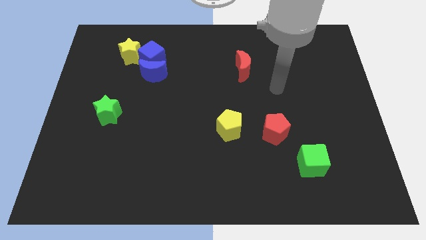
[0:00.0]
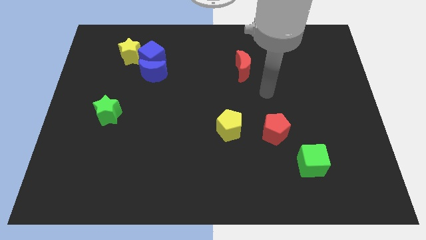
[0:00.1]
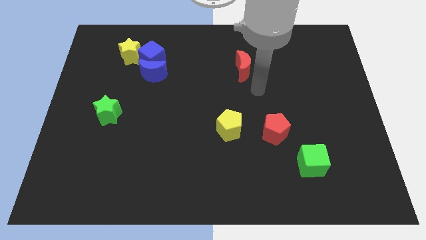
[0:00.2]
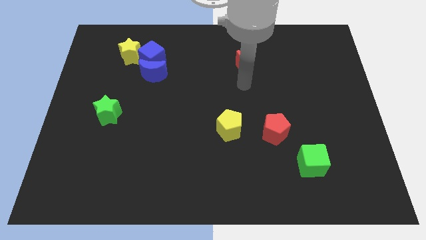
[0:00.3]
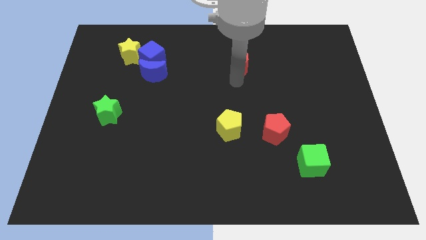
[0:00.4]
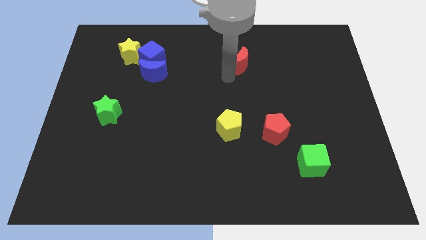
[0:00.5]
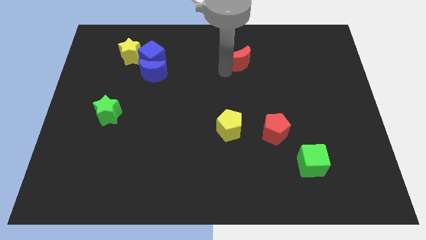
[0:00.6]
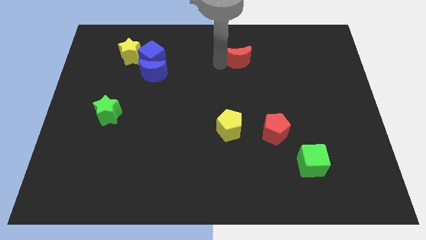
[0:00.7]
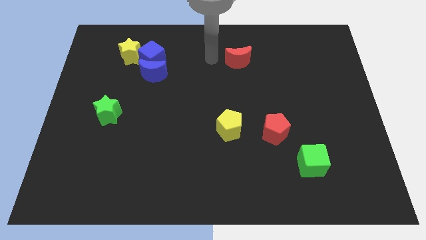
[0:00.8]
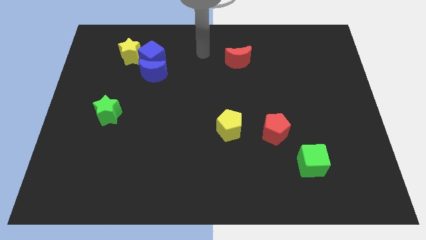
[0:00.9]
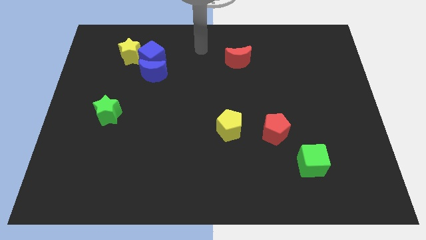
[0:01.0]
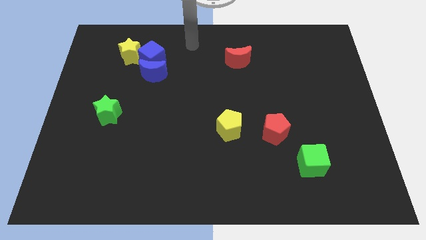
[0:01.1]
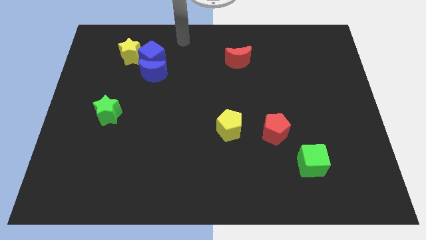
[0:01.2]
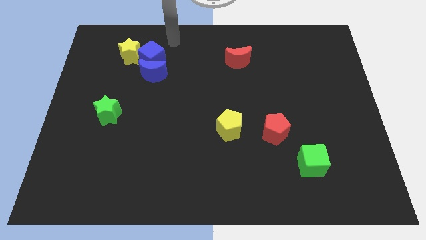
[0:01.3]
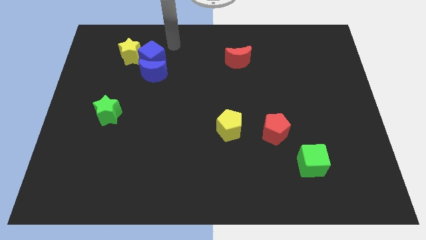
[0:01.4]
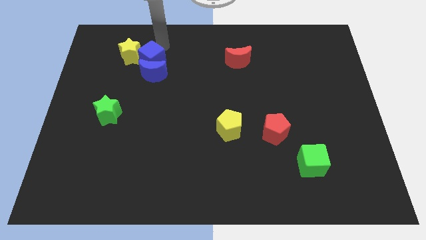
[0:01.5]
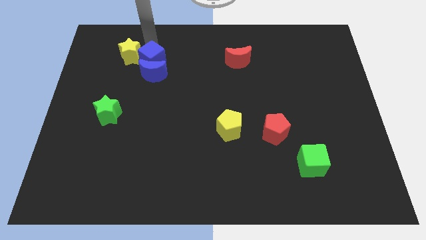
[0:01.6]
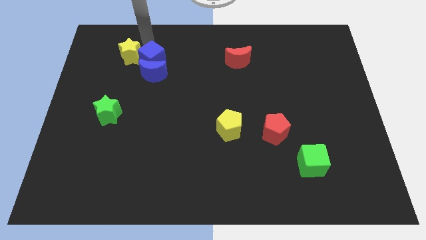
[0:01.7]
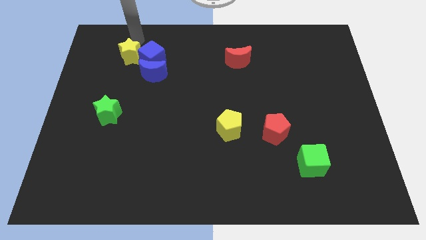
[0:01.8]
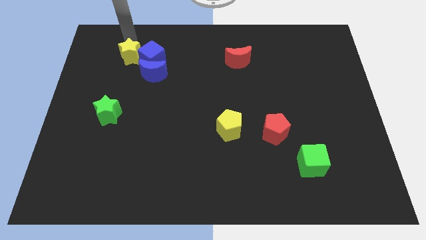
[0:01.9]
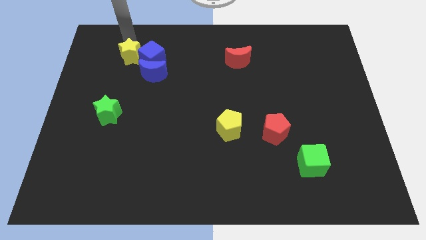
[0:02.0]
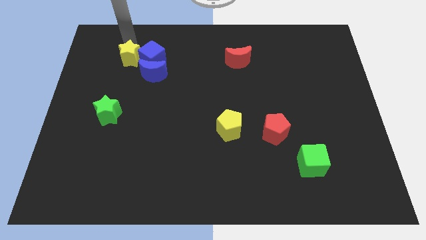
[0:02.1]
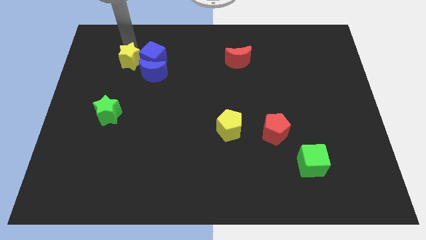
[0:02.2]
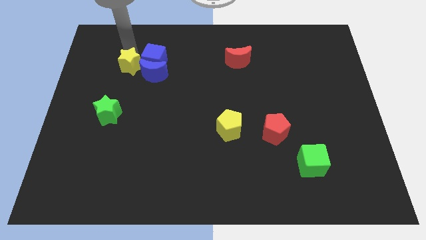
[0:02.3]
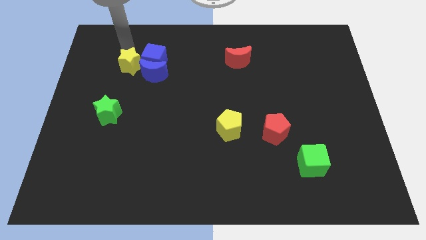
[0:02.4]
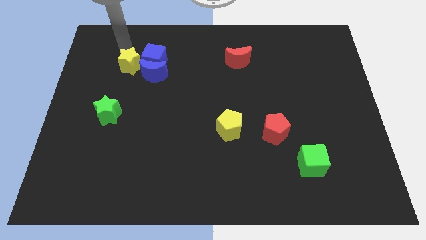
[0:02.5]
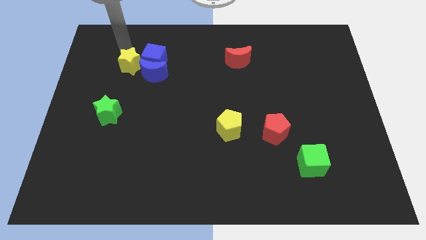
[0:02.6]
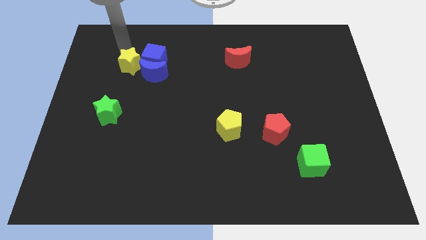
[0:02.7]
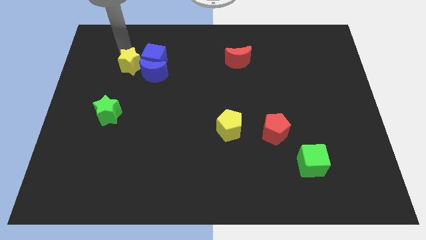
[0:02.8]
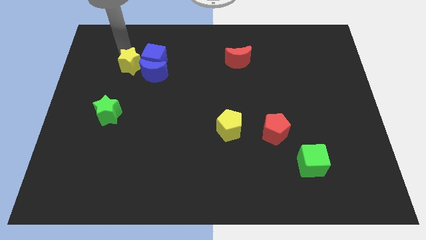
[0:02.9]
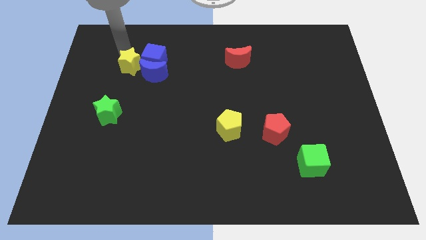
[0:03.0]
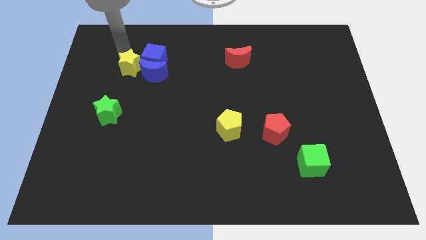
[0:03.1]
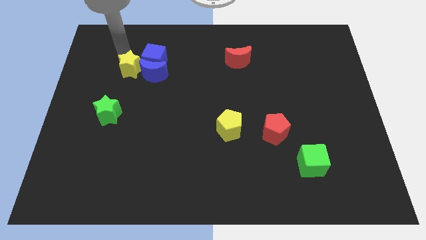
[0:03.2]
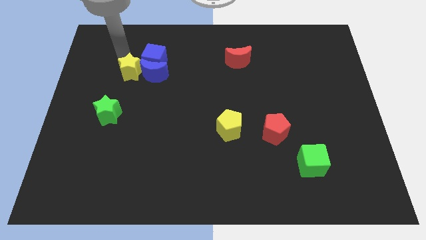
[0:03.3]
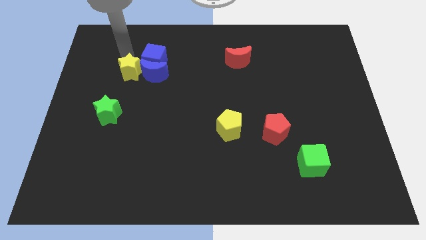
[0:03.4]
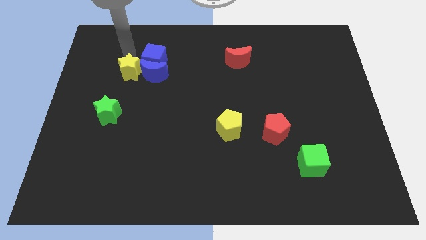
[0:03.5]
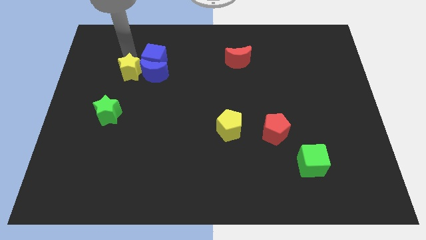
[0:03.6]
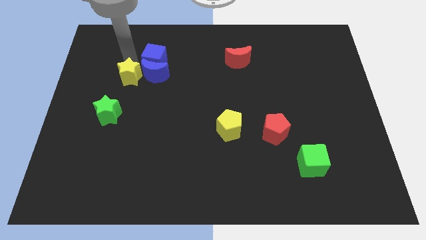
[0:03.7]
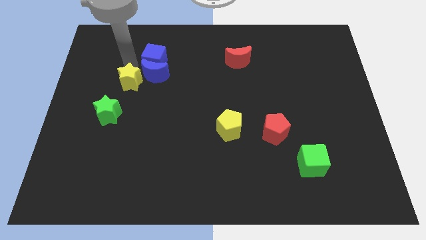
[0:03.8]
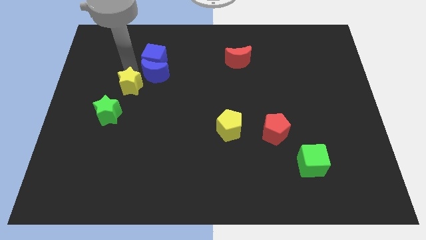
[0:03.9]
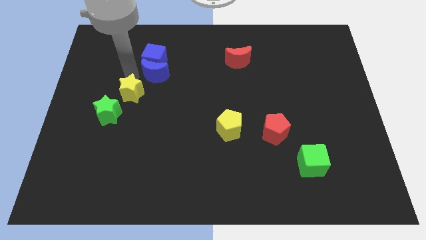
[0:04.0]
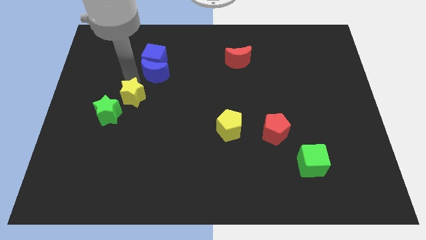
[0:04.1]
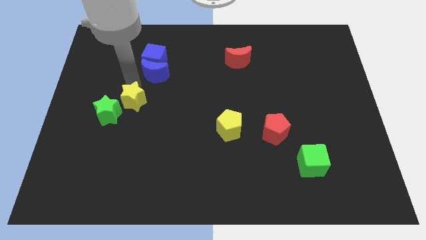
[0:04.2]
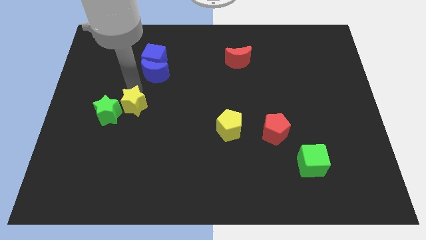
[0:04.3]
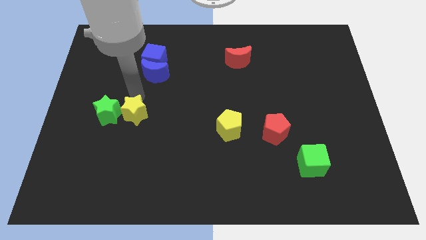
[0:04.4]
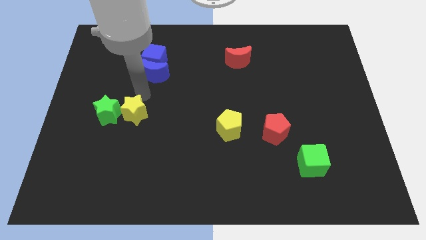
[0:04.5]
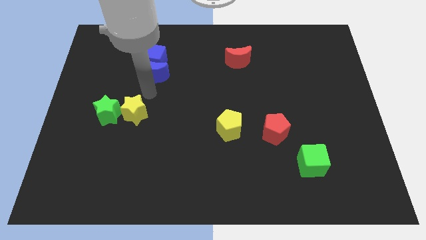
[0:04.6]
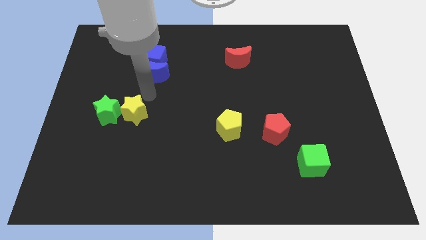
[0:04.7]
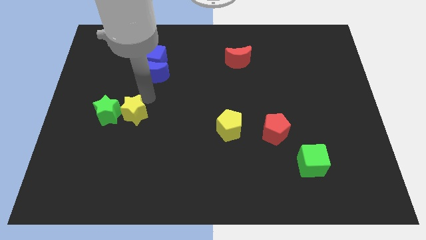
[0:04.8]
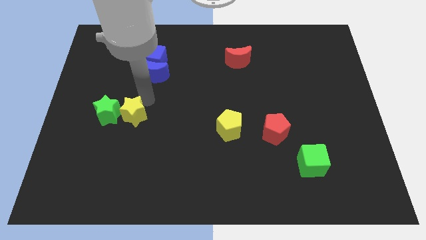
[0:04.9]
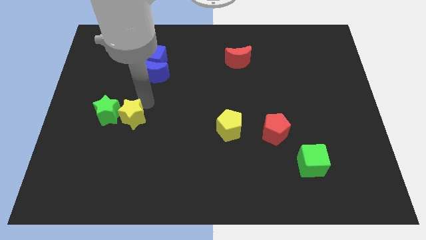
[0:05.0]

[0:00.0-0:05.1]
move the yellow star down

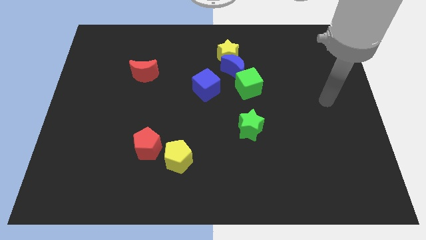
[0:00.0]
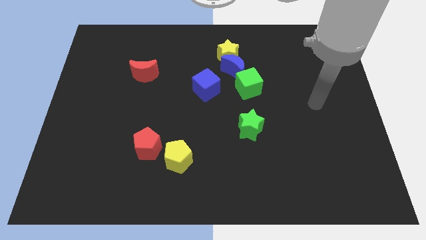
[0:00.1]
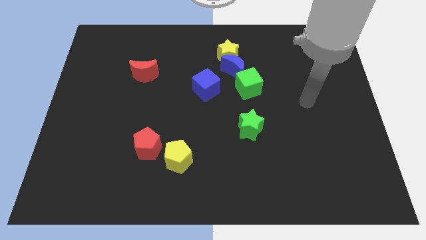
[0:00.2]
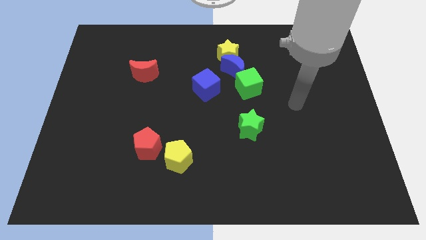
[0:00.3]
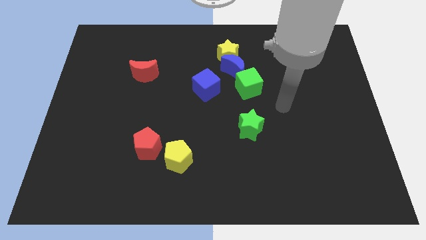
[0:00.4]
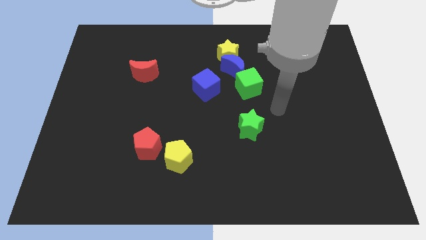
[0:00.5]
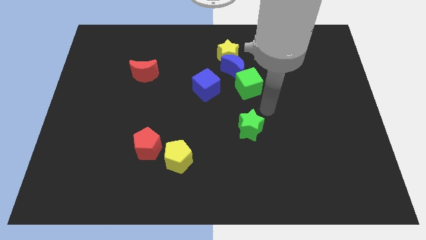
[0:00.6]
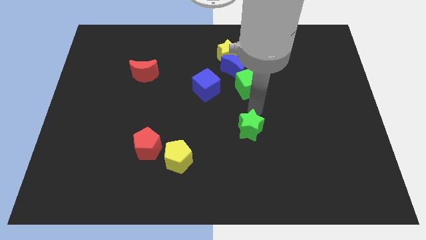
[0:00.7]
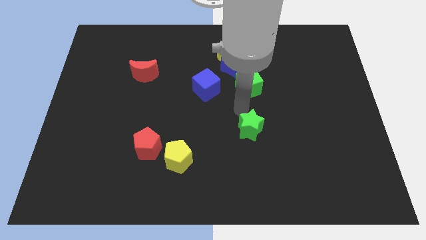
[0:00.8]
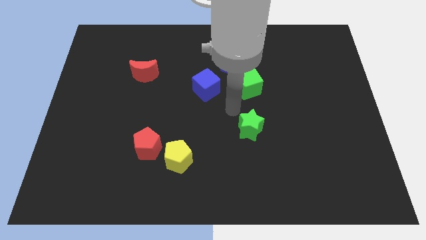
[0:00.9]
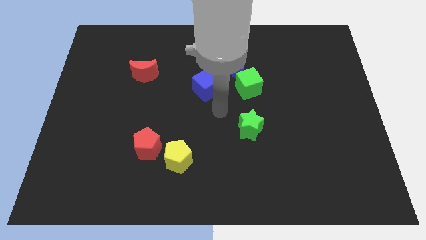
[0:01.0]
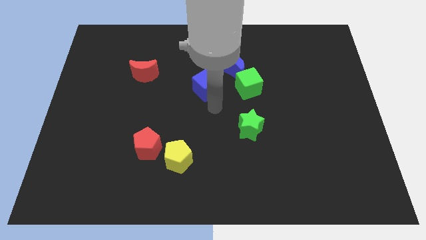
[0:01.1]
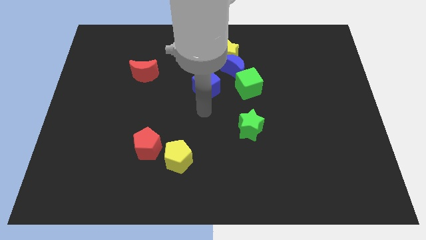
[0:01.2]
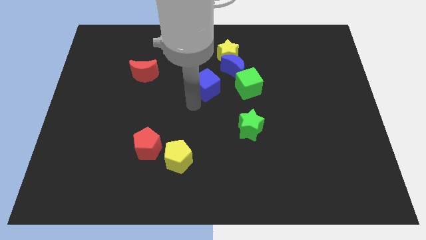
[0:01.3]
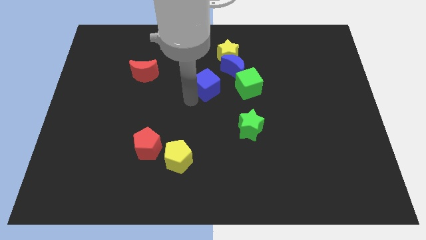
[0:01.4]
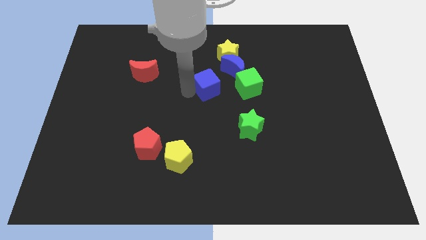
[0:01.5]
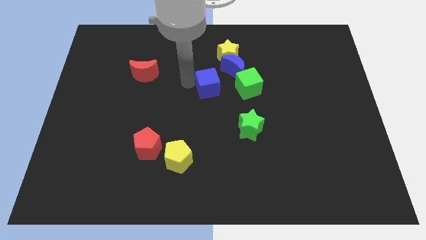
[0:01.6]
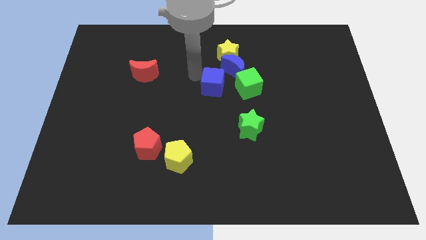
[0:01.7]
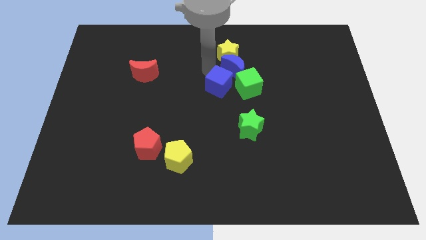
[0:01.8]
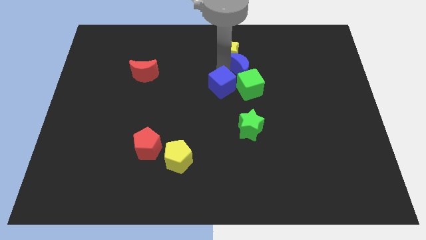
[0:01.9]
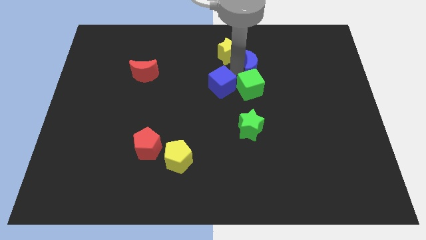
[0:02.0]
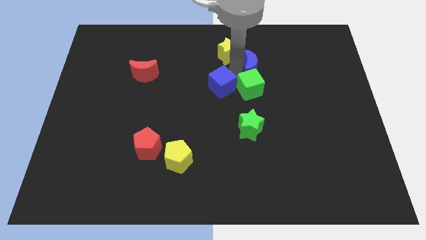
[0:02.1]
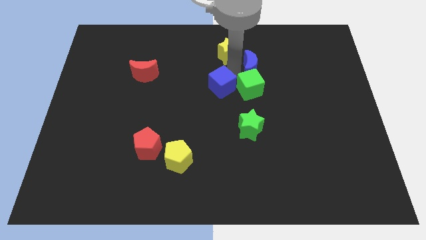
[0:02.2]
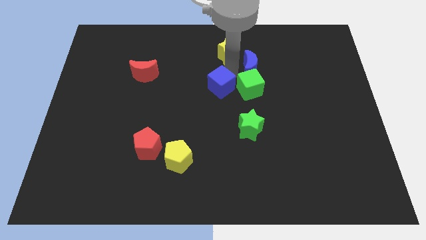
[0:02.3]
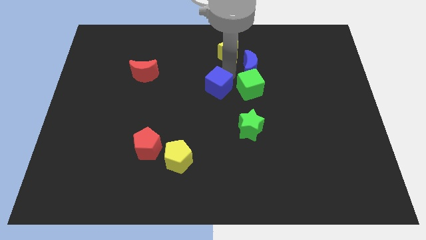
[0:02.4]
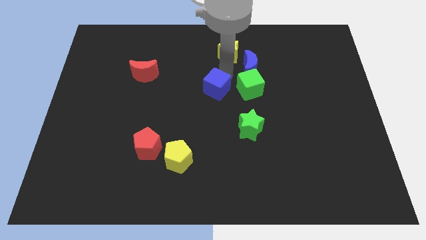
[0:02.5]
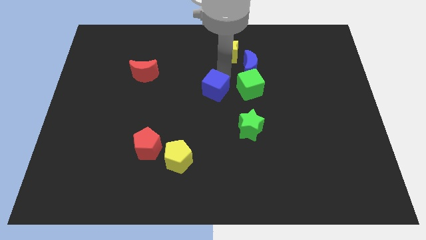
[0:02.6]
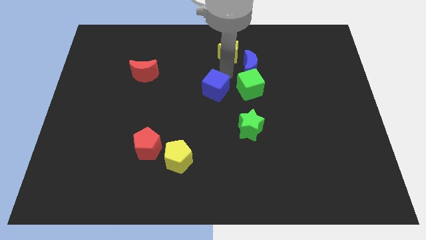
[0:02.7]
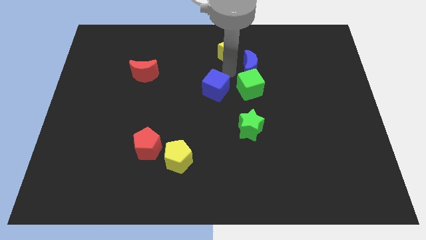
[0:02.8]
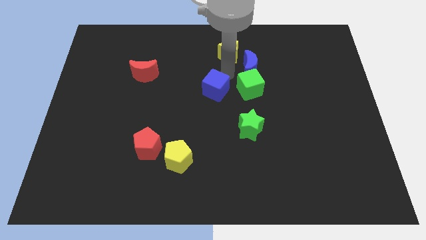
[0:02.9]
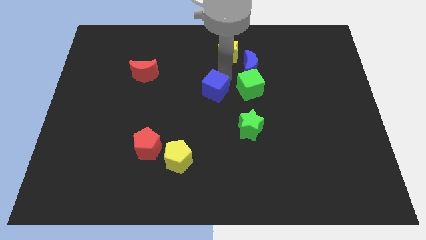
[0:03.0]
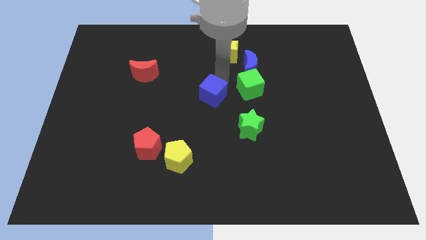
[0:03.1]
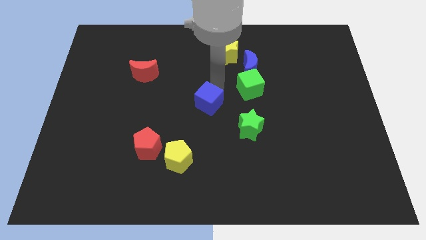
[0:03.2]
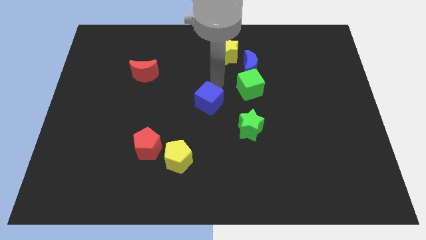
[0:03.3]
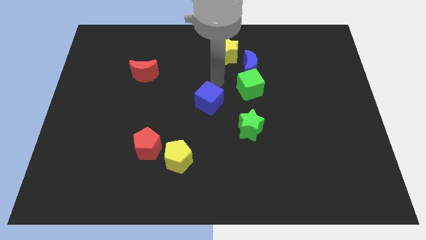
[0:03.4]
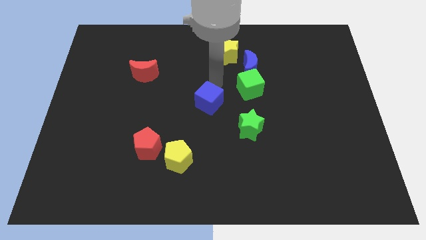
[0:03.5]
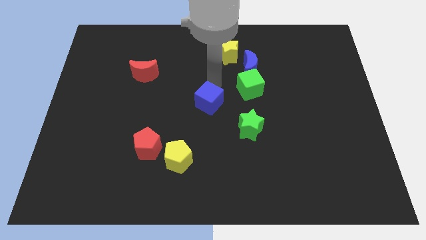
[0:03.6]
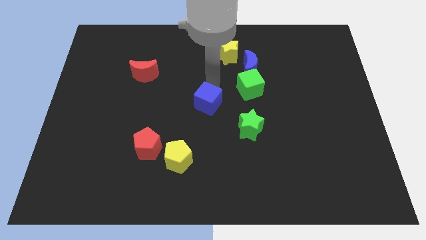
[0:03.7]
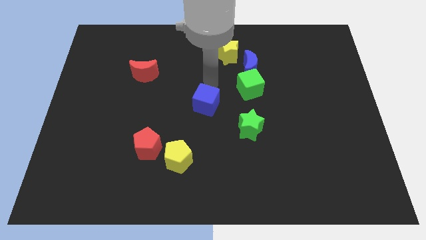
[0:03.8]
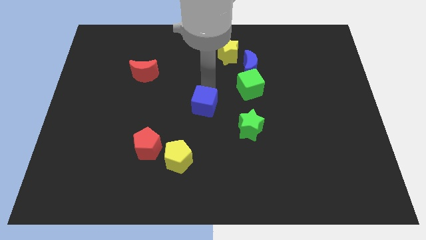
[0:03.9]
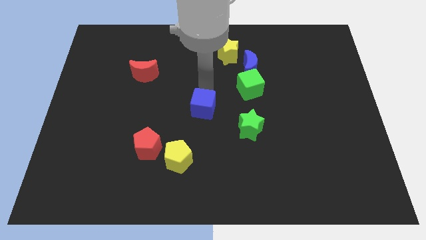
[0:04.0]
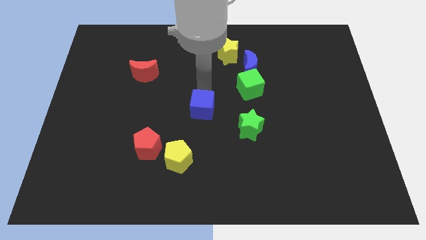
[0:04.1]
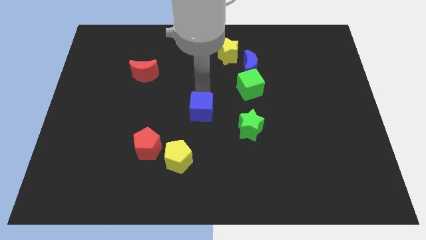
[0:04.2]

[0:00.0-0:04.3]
slightly move the blue cube downwards
